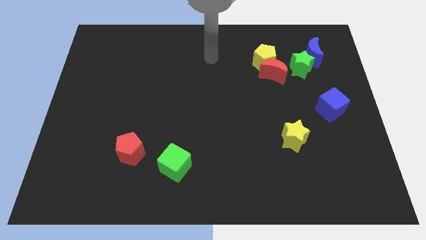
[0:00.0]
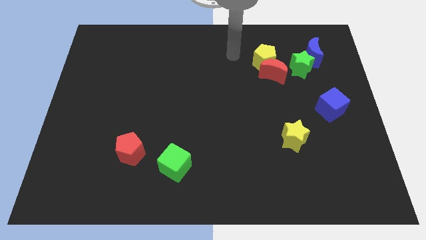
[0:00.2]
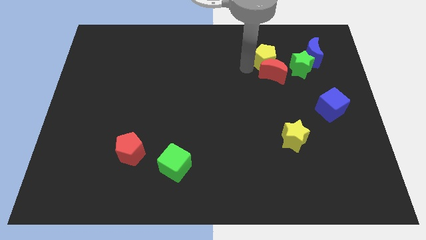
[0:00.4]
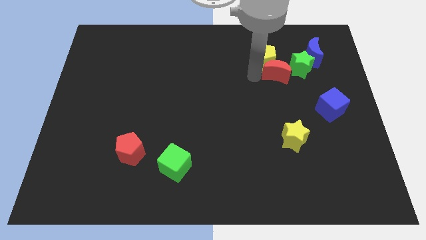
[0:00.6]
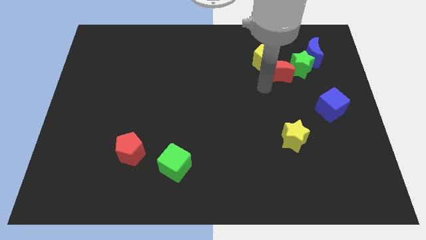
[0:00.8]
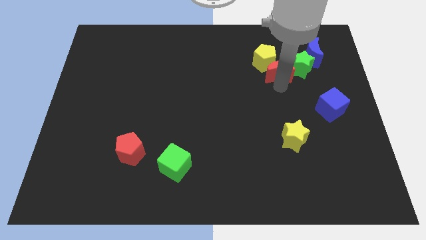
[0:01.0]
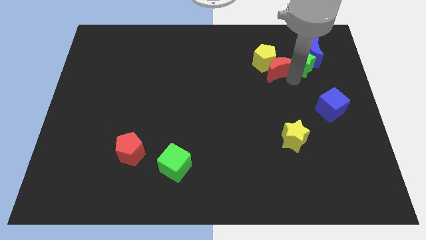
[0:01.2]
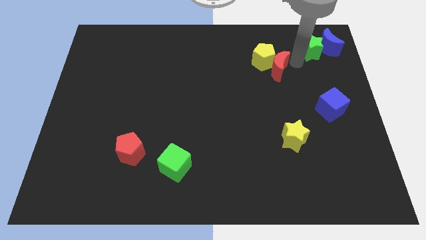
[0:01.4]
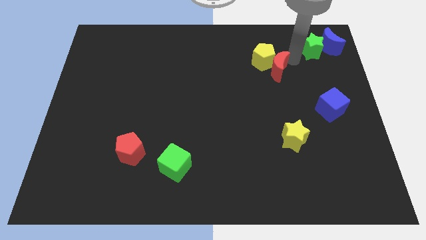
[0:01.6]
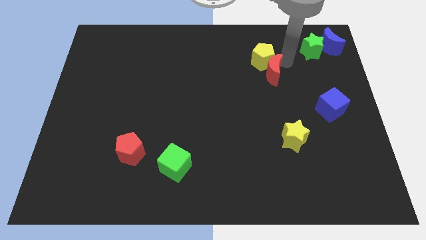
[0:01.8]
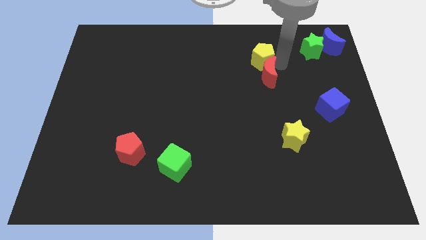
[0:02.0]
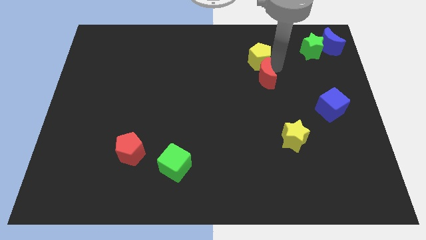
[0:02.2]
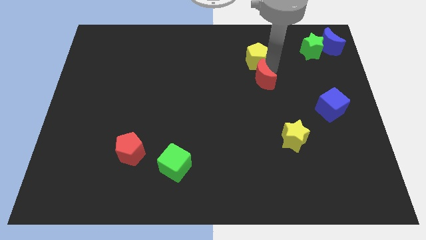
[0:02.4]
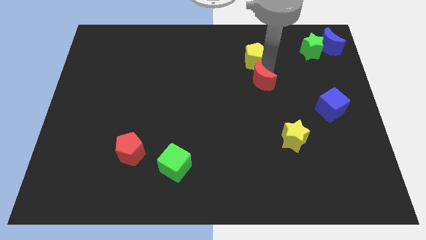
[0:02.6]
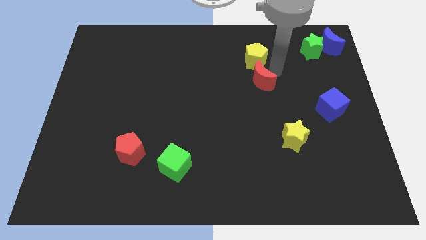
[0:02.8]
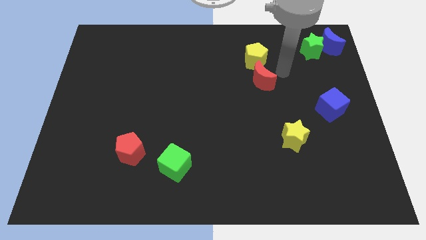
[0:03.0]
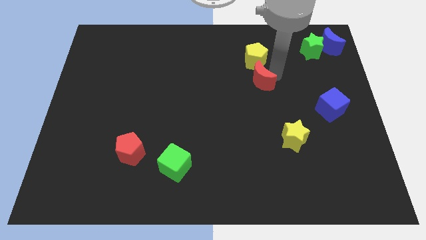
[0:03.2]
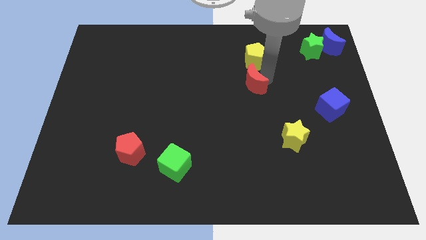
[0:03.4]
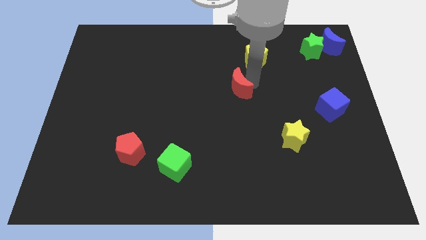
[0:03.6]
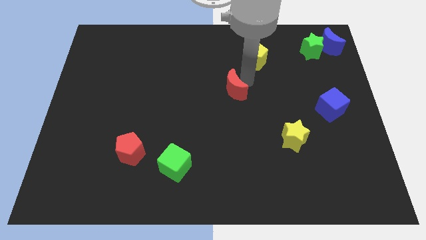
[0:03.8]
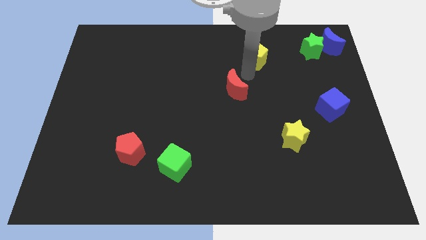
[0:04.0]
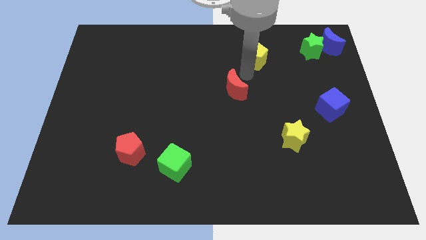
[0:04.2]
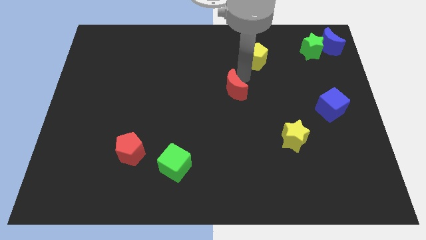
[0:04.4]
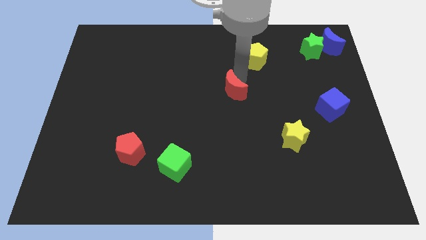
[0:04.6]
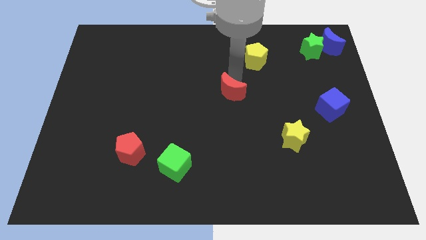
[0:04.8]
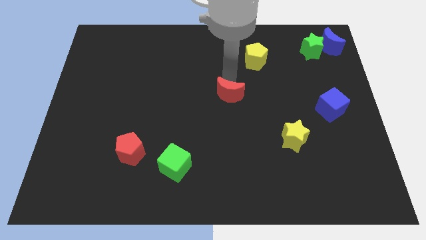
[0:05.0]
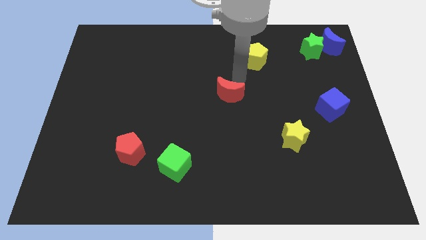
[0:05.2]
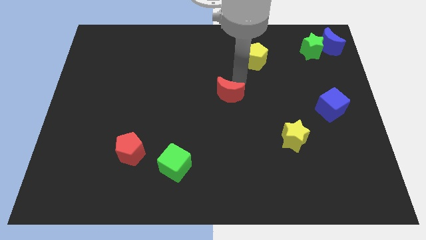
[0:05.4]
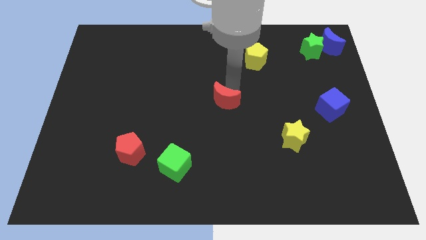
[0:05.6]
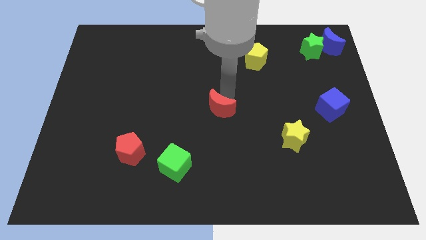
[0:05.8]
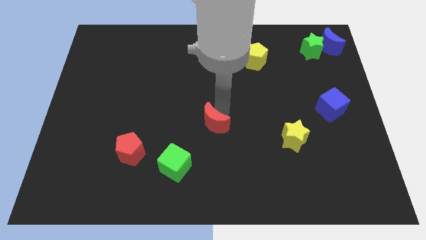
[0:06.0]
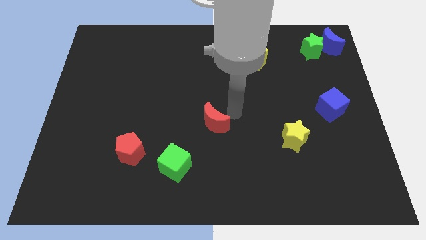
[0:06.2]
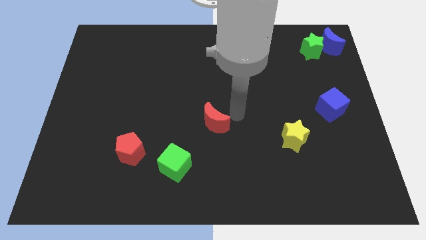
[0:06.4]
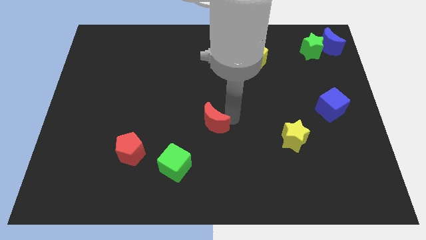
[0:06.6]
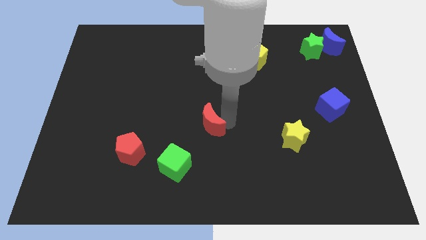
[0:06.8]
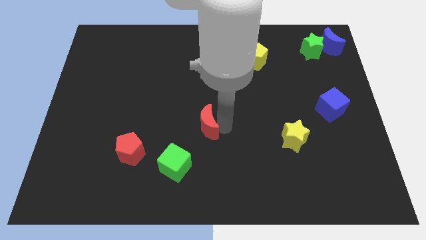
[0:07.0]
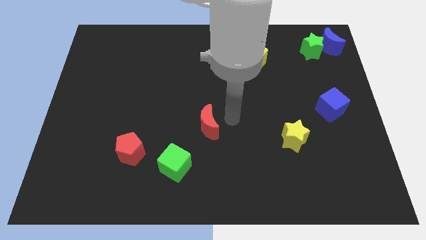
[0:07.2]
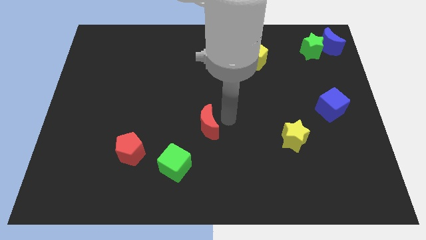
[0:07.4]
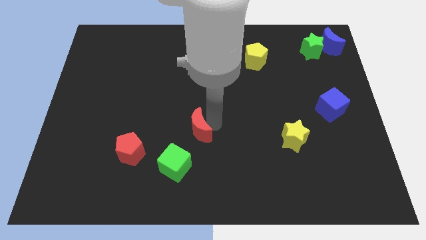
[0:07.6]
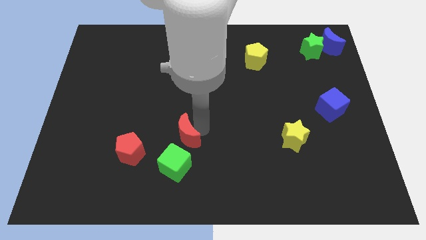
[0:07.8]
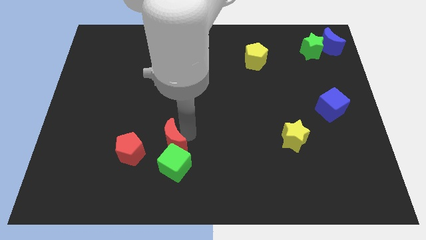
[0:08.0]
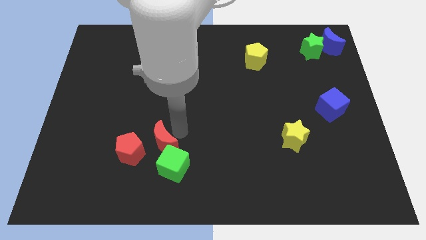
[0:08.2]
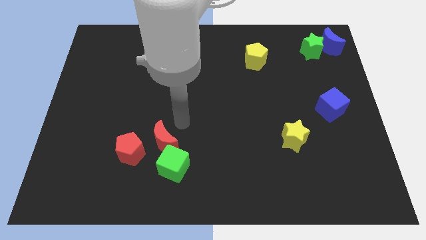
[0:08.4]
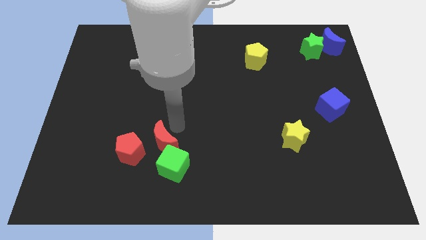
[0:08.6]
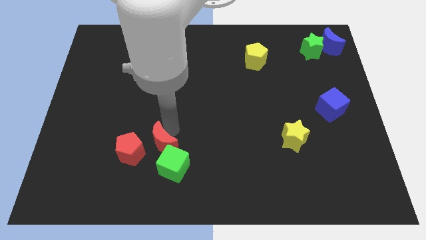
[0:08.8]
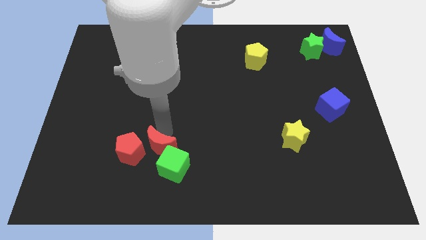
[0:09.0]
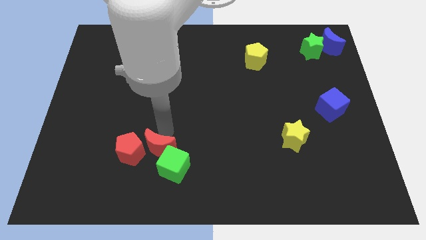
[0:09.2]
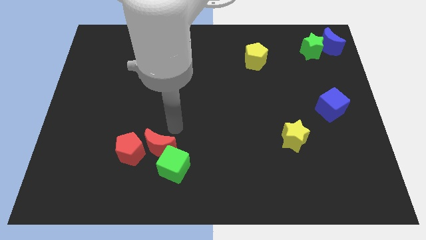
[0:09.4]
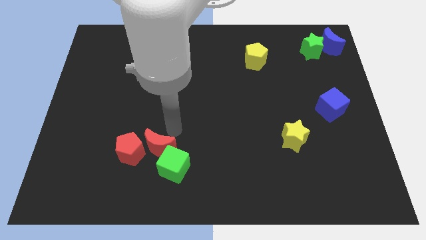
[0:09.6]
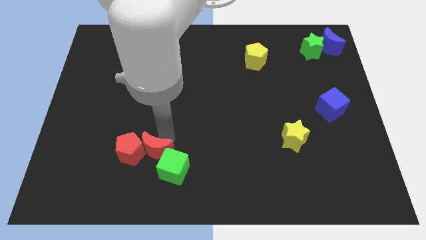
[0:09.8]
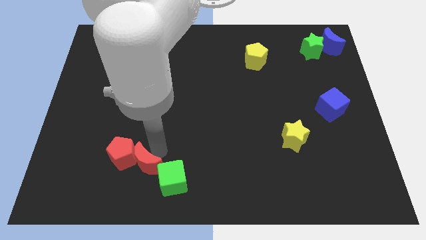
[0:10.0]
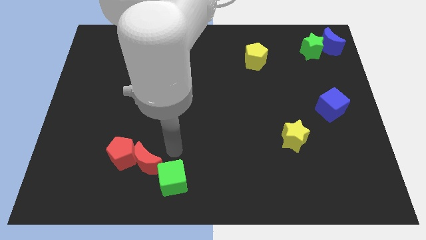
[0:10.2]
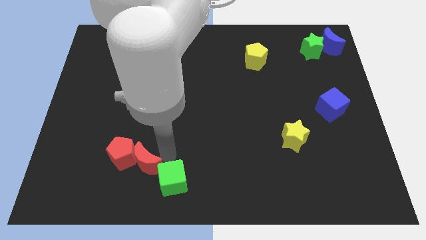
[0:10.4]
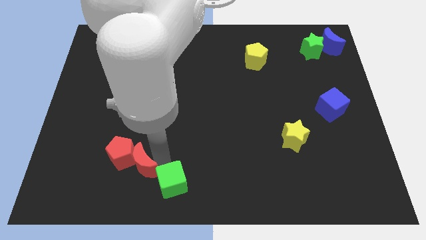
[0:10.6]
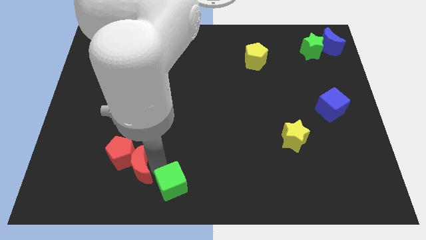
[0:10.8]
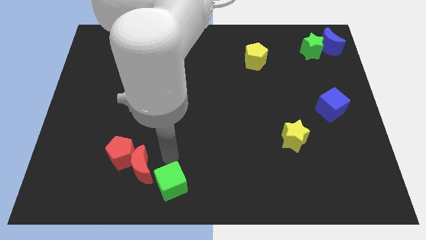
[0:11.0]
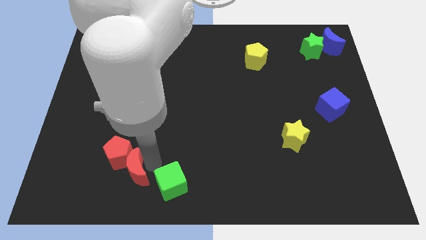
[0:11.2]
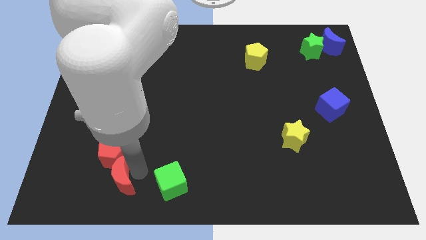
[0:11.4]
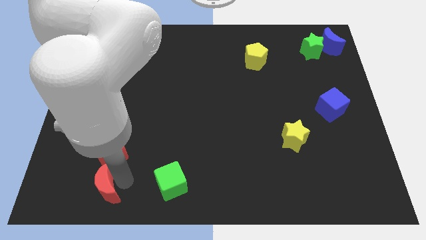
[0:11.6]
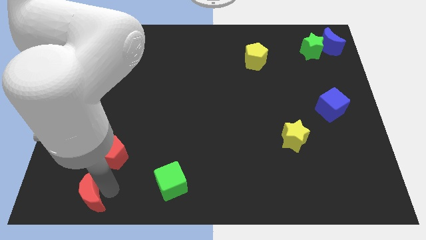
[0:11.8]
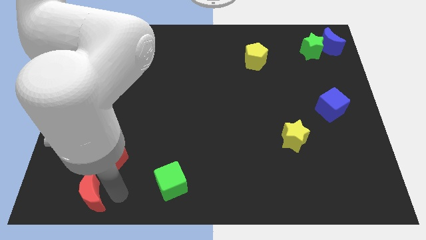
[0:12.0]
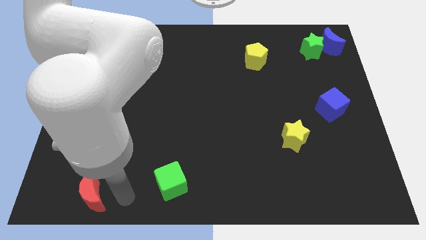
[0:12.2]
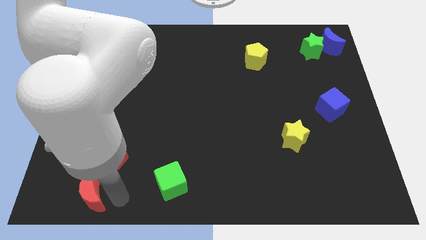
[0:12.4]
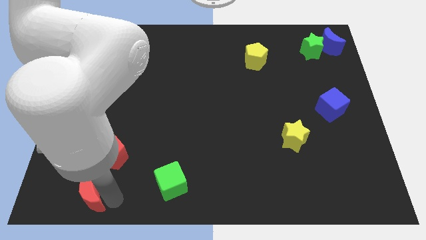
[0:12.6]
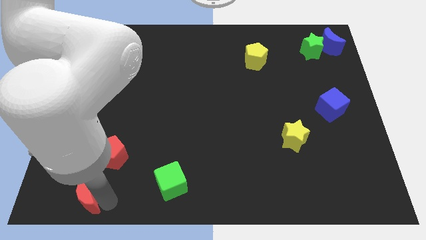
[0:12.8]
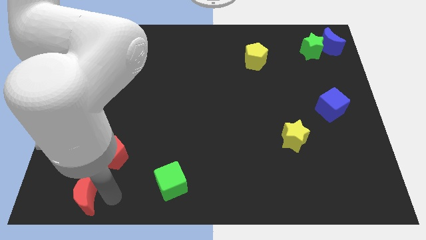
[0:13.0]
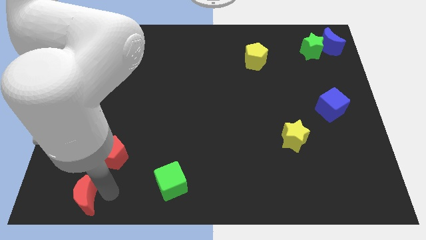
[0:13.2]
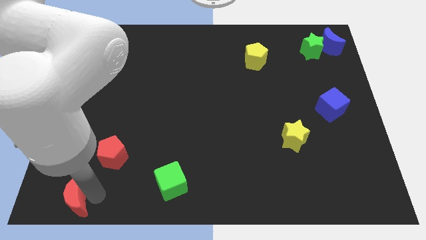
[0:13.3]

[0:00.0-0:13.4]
put the red moon to the bottom left
